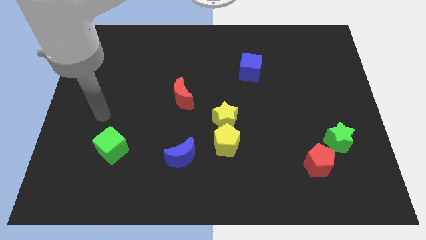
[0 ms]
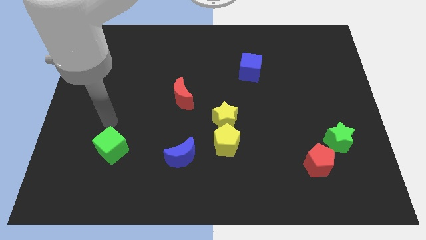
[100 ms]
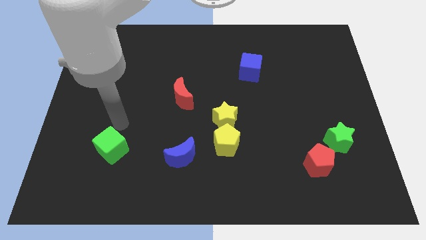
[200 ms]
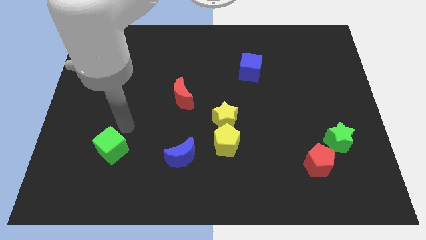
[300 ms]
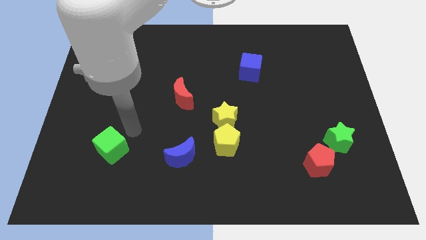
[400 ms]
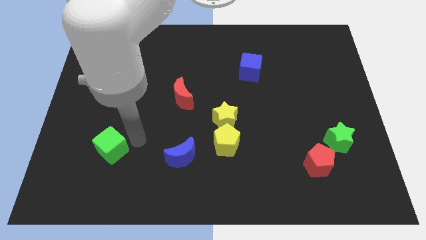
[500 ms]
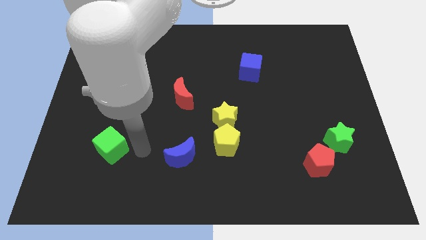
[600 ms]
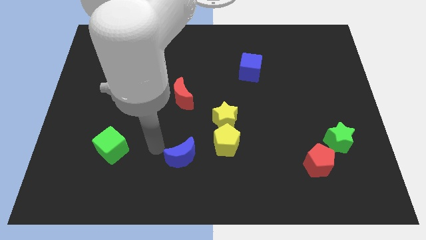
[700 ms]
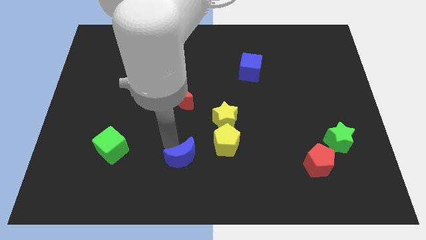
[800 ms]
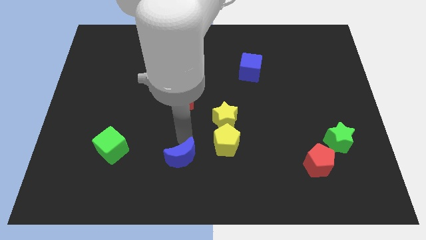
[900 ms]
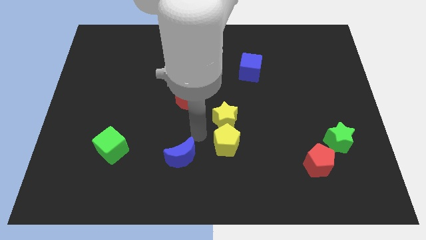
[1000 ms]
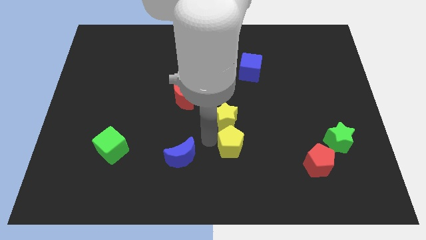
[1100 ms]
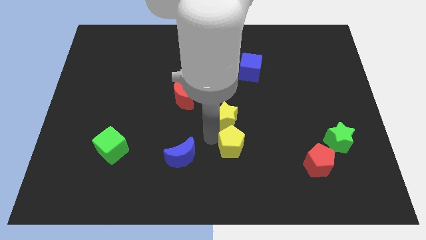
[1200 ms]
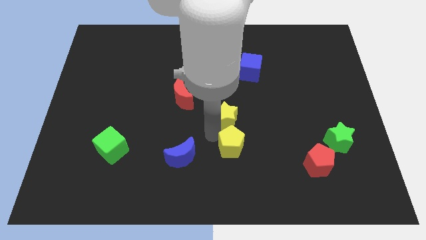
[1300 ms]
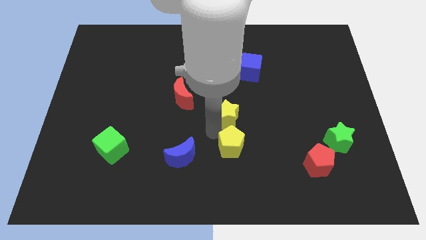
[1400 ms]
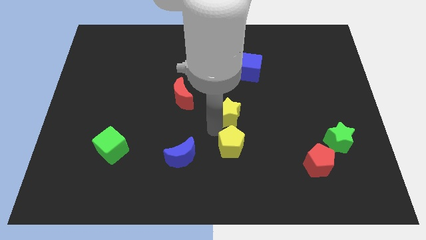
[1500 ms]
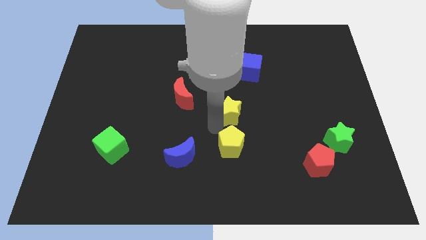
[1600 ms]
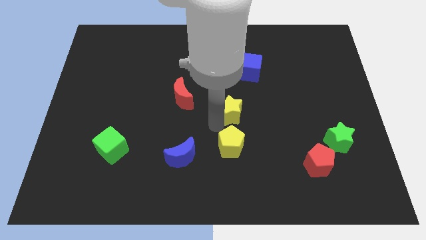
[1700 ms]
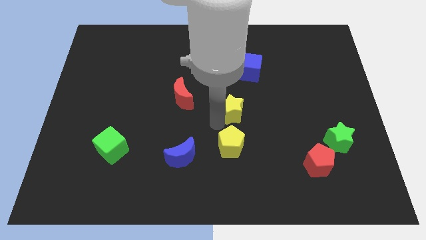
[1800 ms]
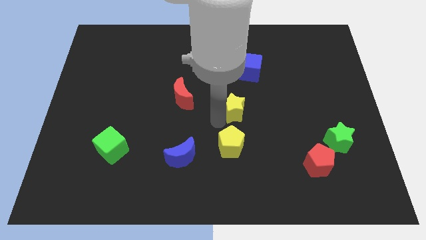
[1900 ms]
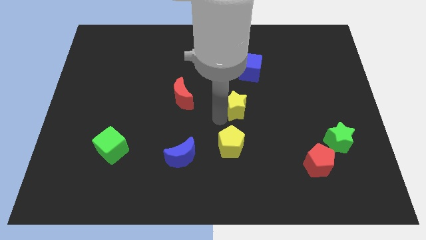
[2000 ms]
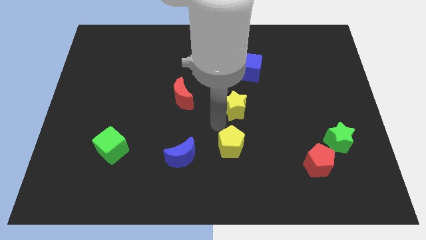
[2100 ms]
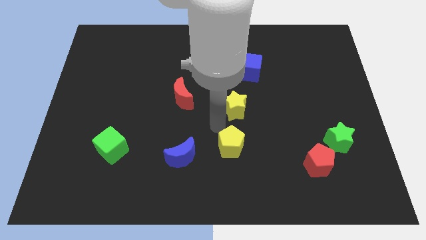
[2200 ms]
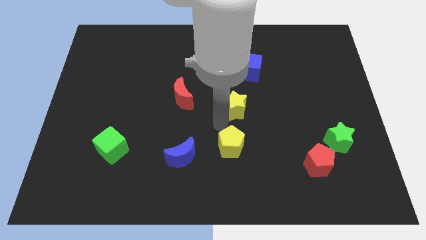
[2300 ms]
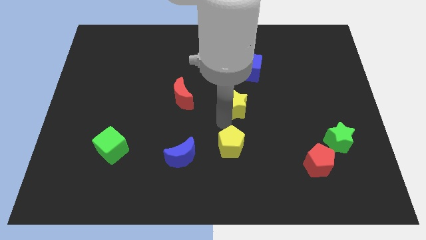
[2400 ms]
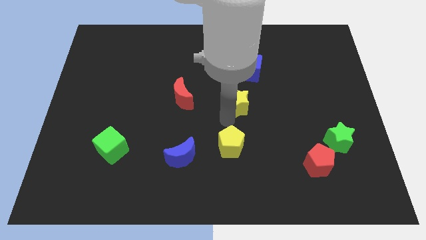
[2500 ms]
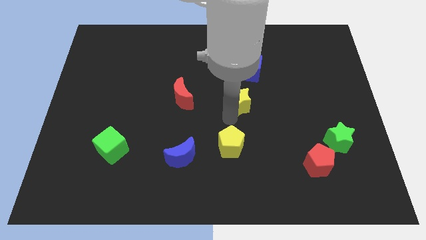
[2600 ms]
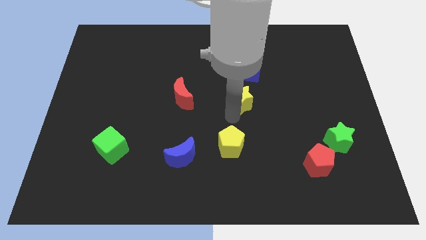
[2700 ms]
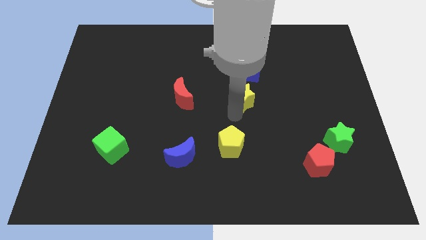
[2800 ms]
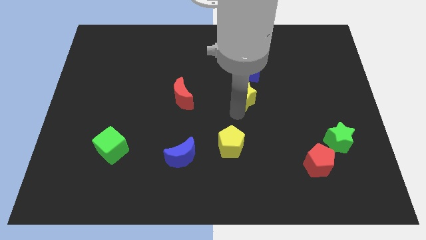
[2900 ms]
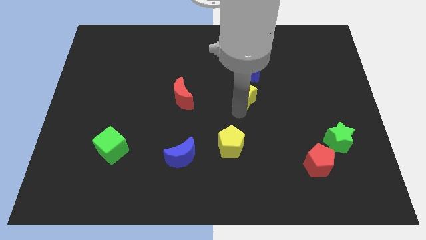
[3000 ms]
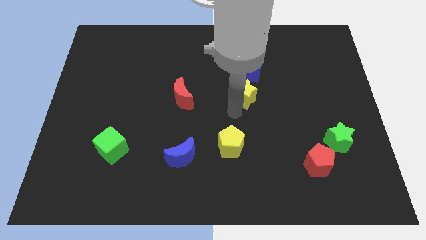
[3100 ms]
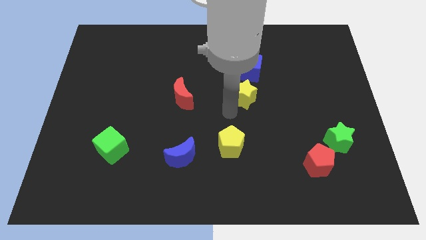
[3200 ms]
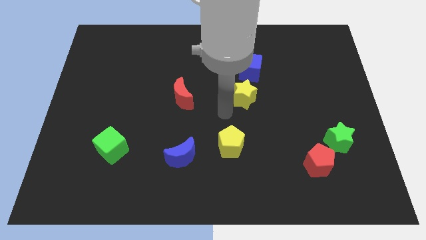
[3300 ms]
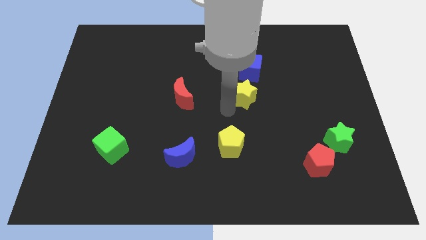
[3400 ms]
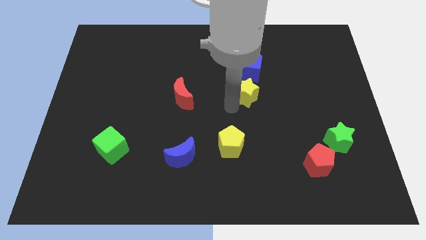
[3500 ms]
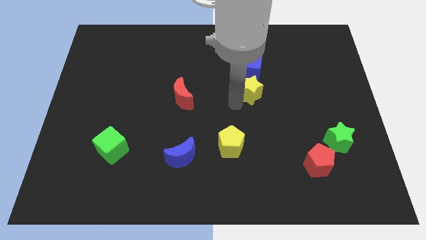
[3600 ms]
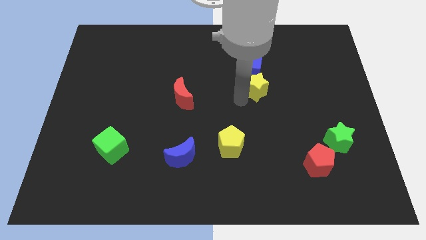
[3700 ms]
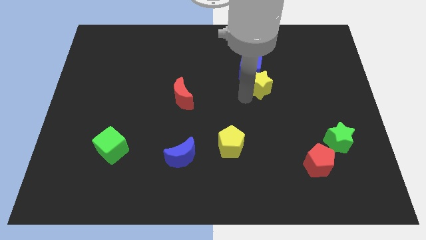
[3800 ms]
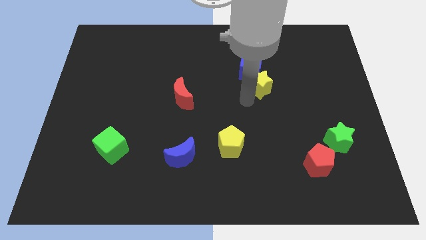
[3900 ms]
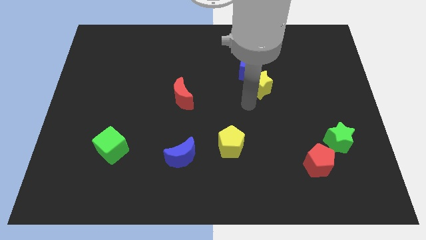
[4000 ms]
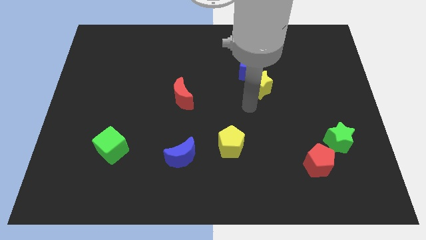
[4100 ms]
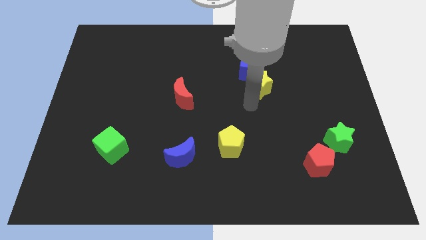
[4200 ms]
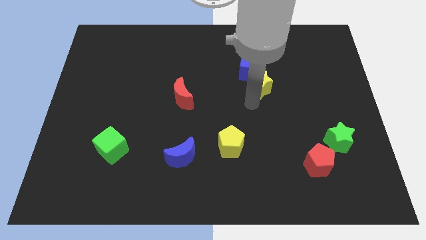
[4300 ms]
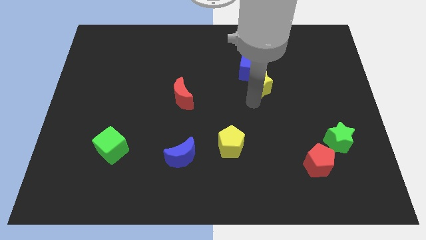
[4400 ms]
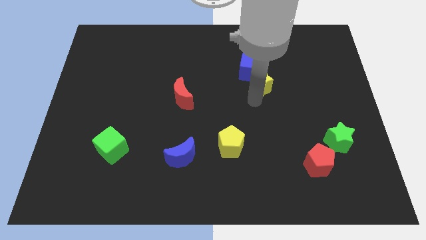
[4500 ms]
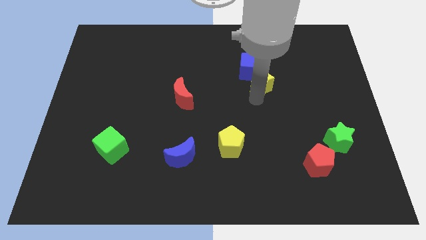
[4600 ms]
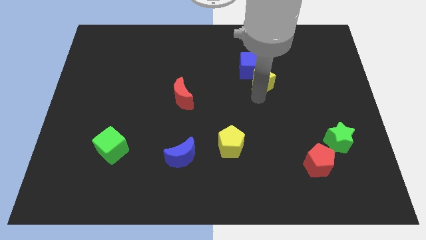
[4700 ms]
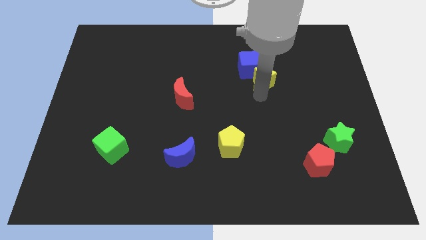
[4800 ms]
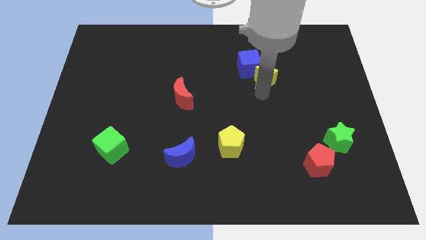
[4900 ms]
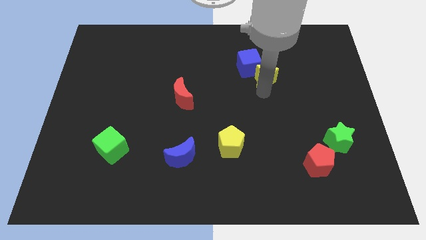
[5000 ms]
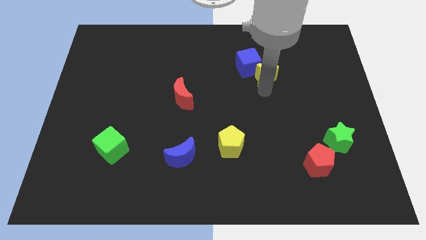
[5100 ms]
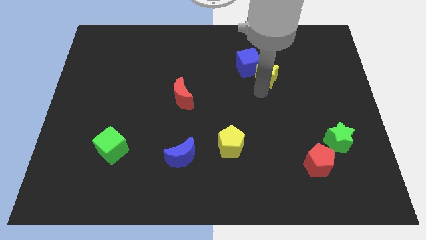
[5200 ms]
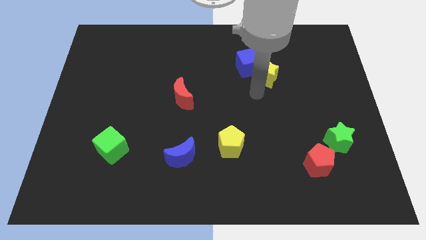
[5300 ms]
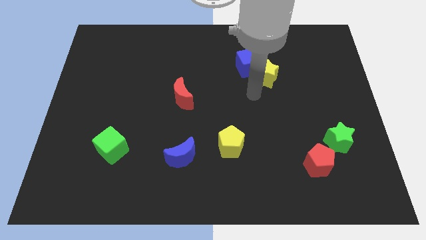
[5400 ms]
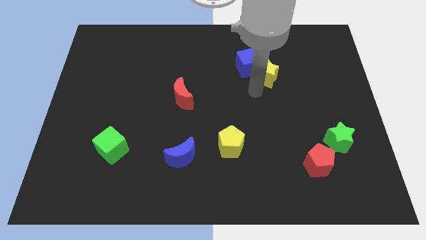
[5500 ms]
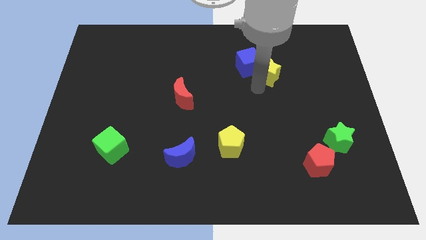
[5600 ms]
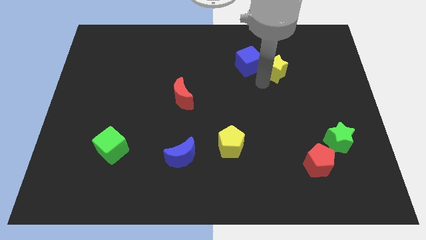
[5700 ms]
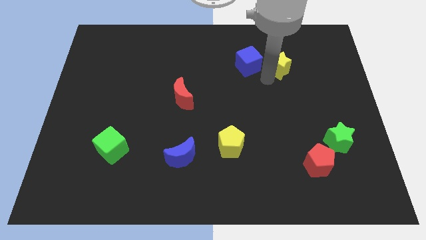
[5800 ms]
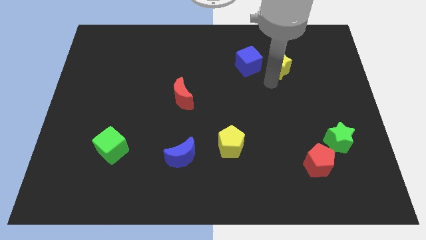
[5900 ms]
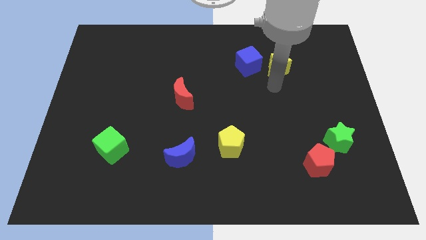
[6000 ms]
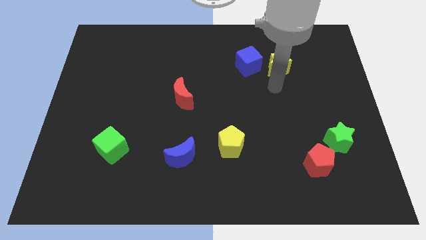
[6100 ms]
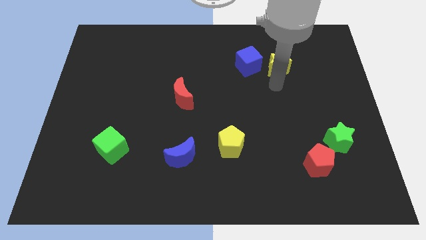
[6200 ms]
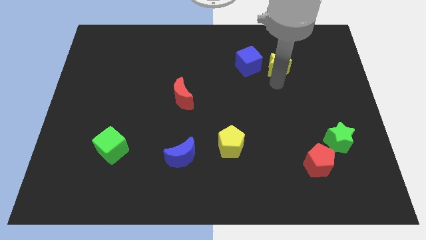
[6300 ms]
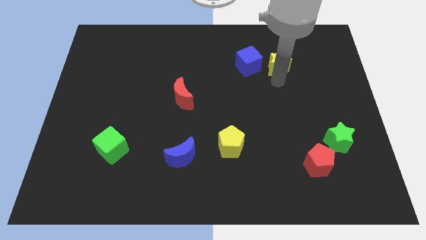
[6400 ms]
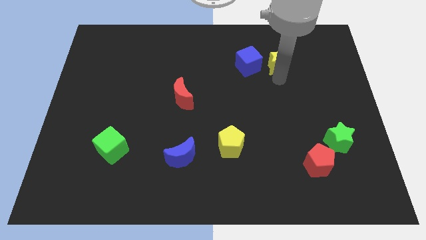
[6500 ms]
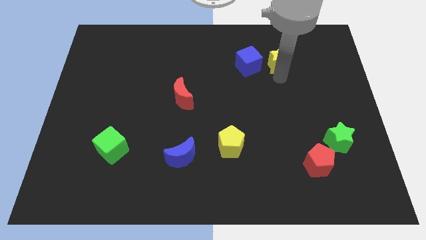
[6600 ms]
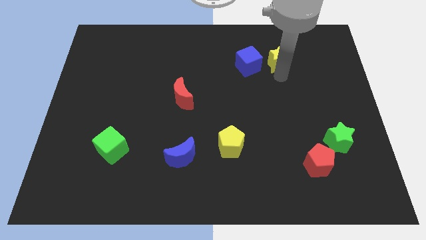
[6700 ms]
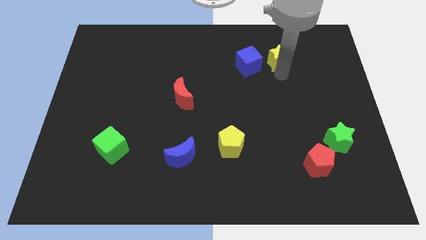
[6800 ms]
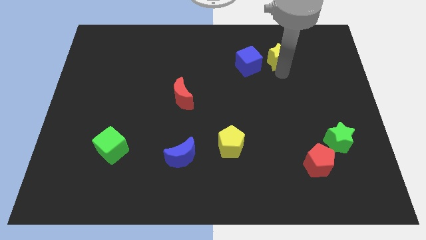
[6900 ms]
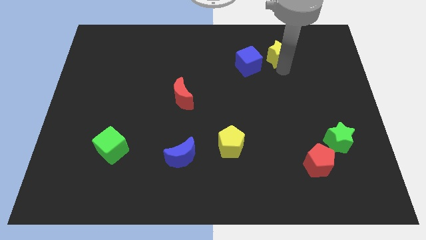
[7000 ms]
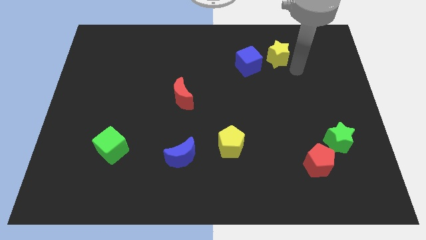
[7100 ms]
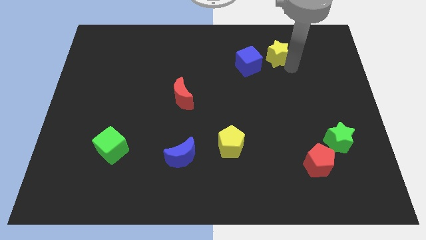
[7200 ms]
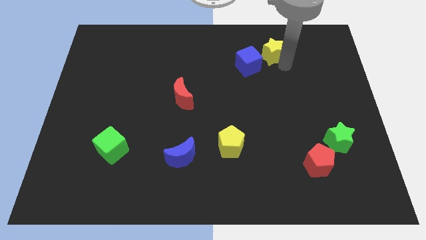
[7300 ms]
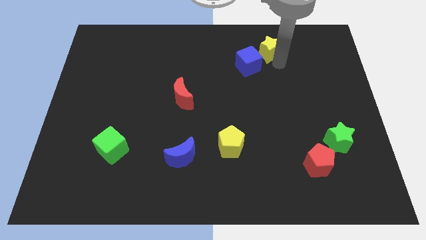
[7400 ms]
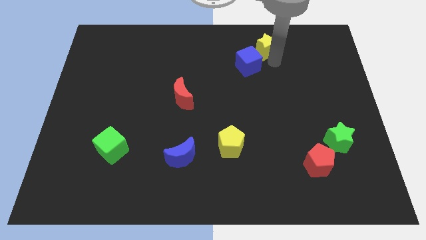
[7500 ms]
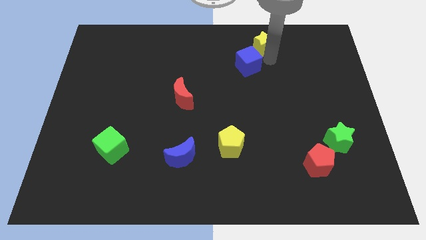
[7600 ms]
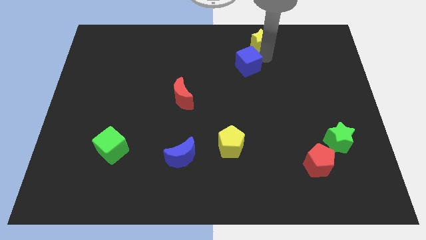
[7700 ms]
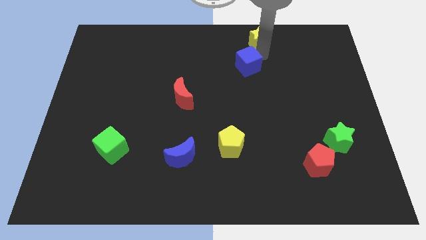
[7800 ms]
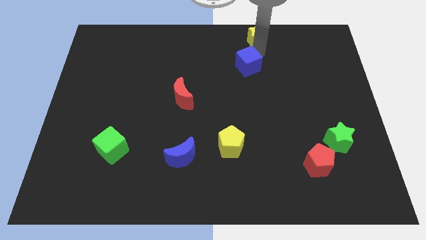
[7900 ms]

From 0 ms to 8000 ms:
slide the yellow star to the top side
